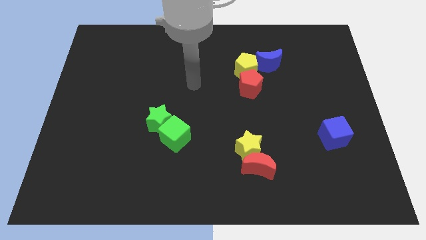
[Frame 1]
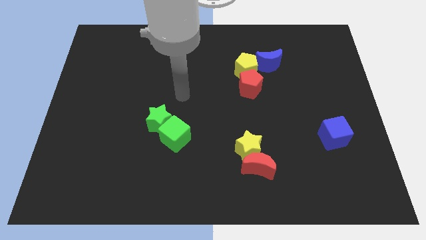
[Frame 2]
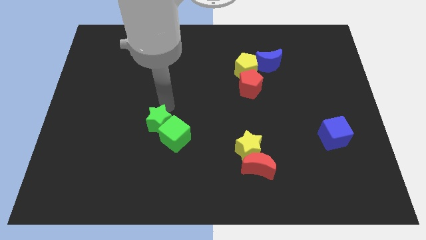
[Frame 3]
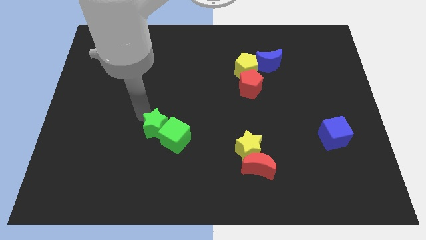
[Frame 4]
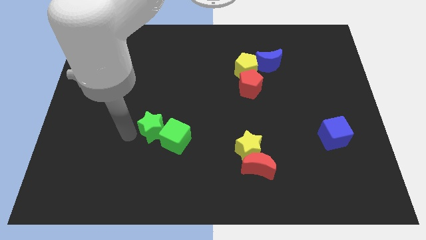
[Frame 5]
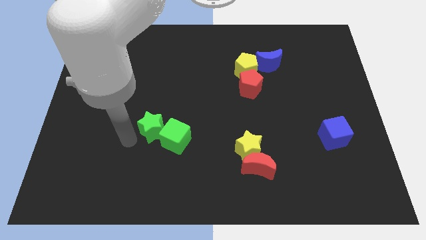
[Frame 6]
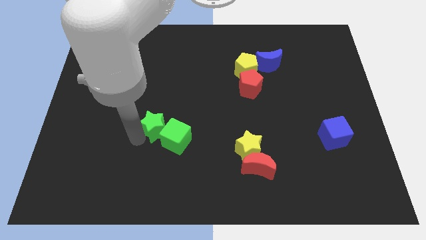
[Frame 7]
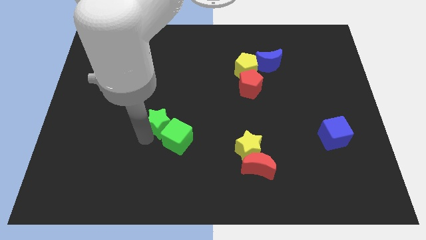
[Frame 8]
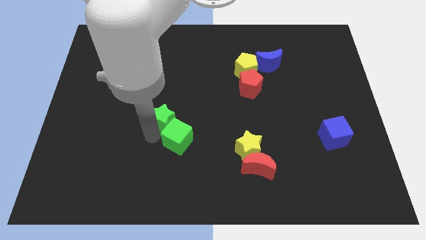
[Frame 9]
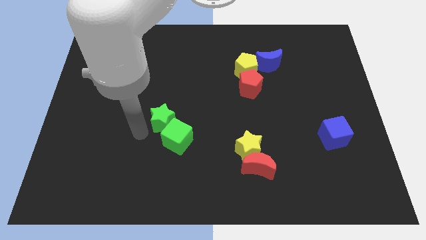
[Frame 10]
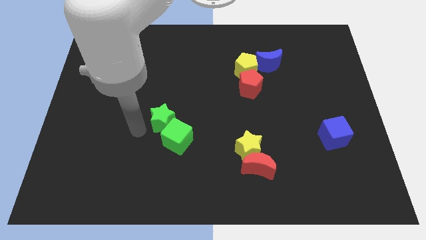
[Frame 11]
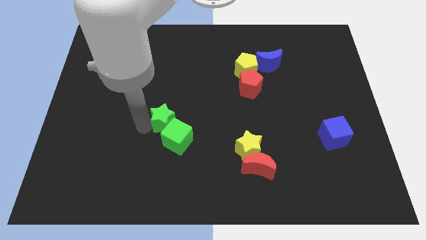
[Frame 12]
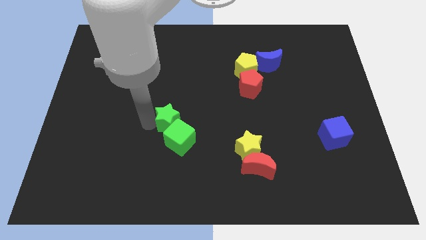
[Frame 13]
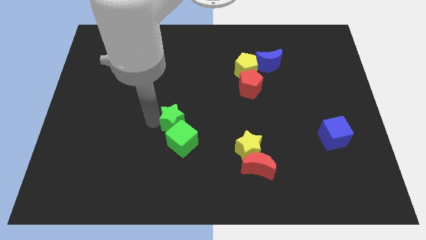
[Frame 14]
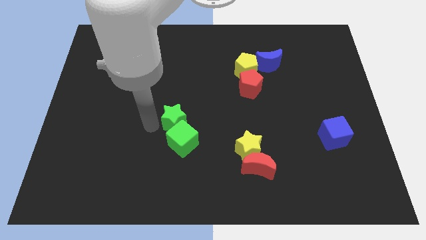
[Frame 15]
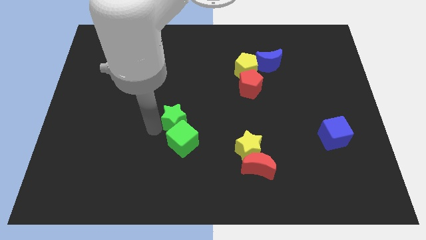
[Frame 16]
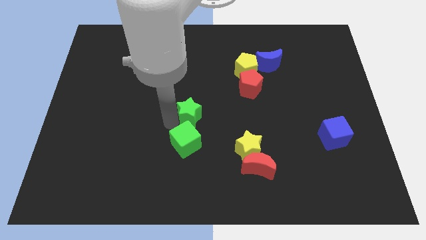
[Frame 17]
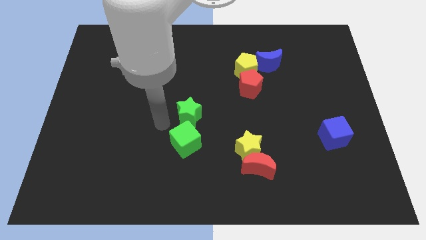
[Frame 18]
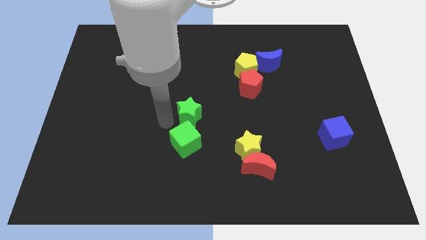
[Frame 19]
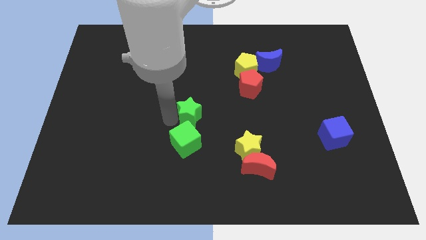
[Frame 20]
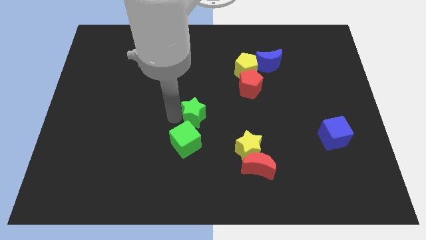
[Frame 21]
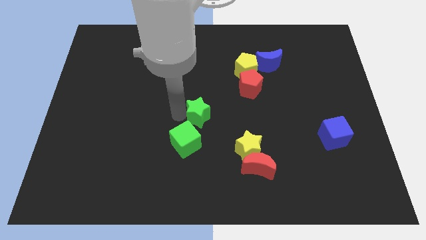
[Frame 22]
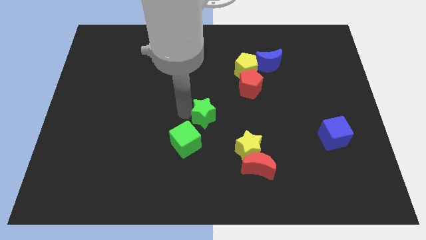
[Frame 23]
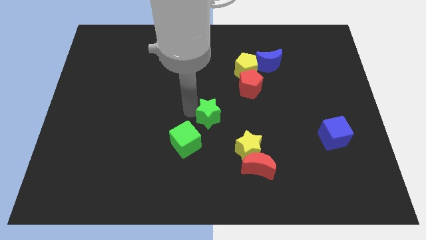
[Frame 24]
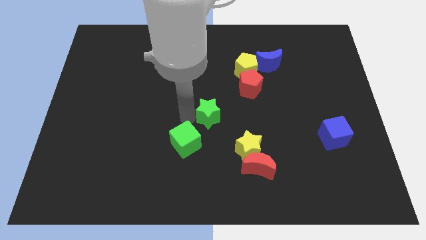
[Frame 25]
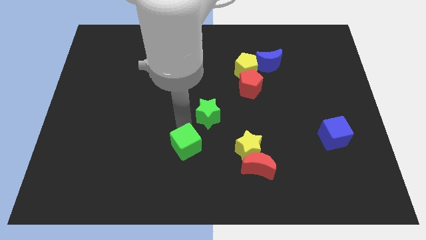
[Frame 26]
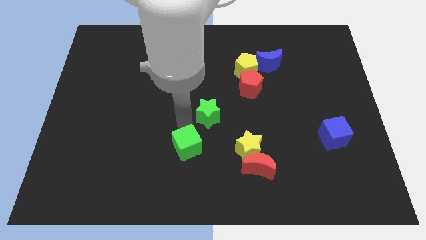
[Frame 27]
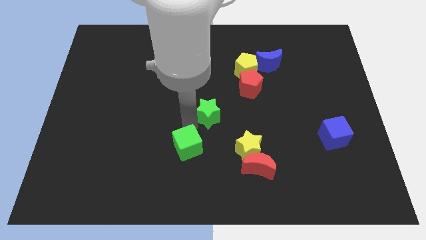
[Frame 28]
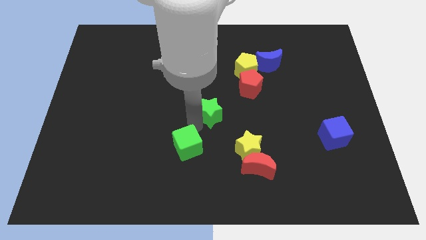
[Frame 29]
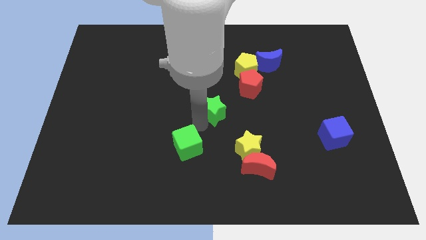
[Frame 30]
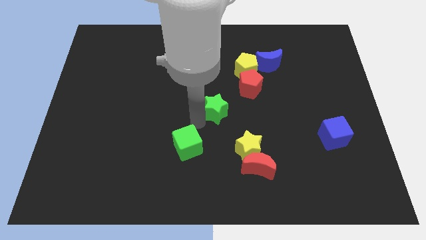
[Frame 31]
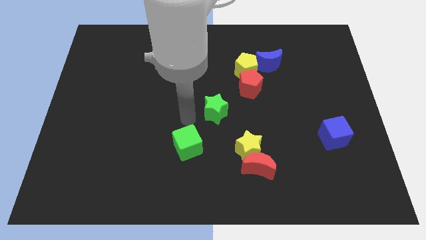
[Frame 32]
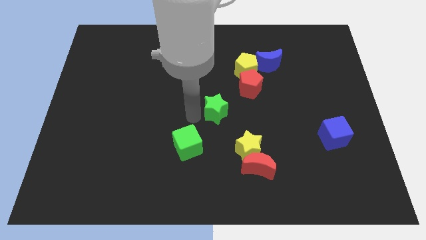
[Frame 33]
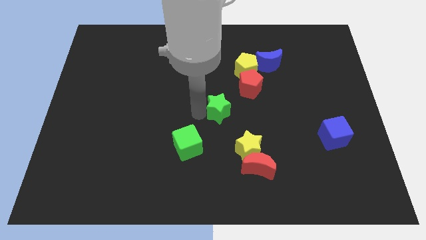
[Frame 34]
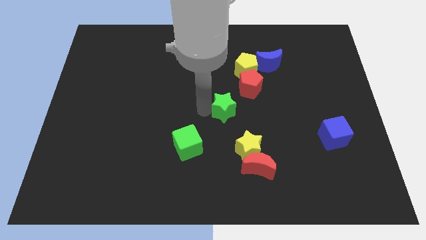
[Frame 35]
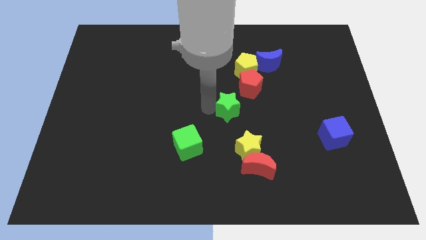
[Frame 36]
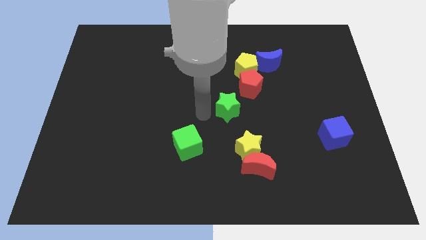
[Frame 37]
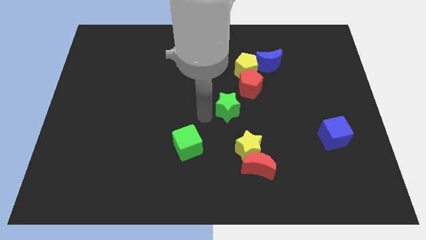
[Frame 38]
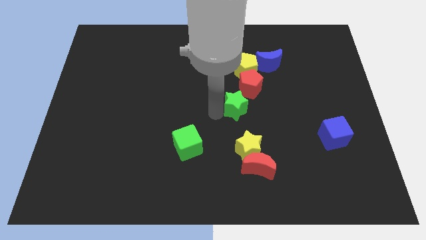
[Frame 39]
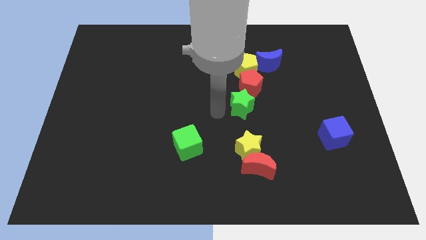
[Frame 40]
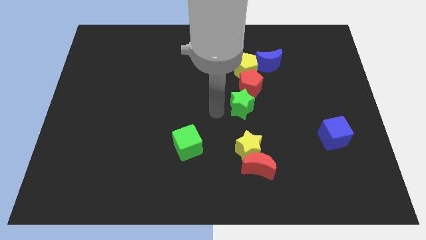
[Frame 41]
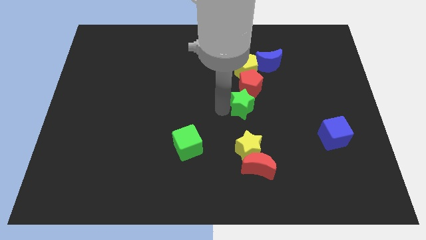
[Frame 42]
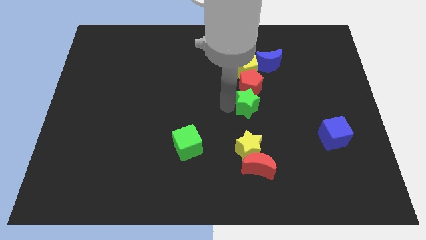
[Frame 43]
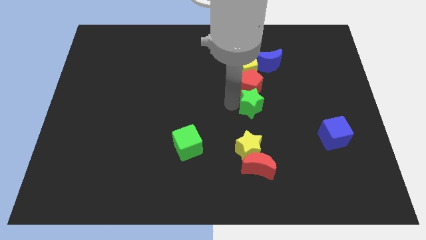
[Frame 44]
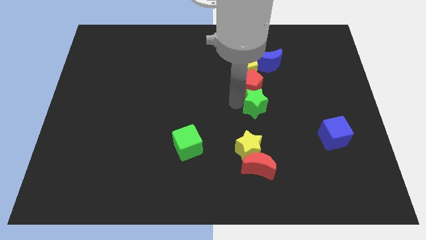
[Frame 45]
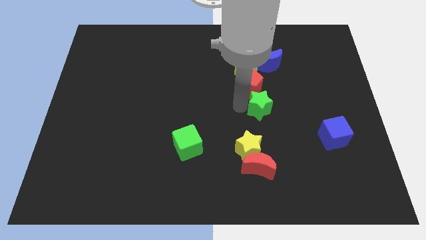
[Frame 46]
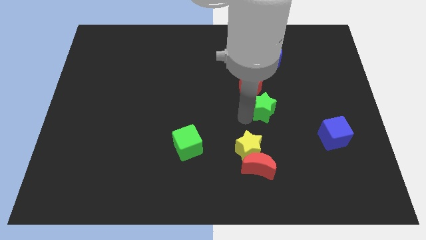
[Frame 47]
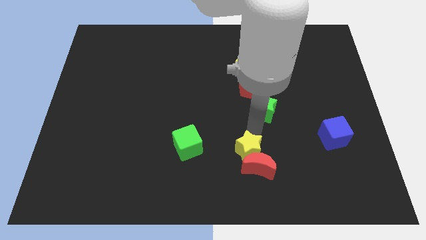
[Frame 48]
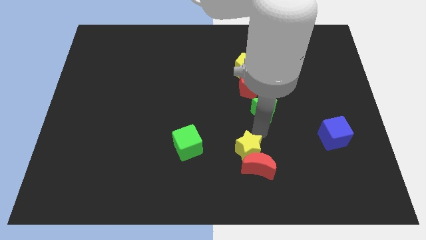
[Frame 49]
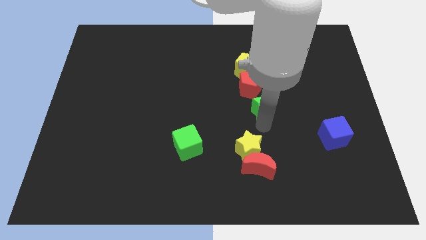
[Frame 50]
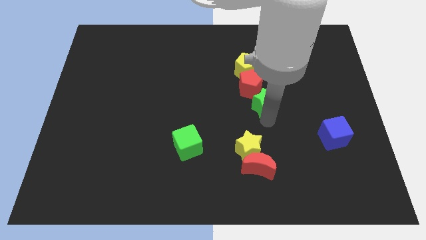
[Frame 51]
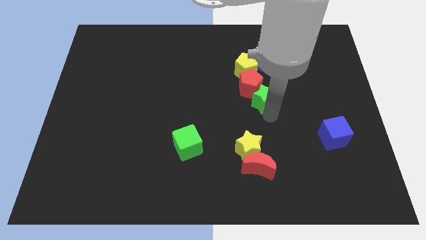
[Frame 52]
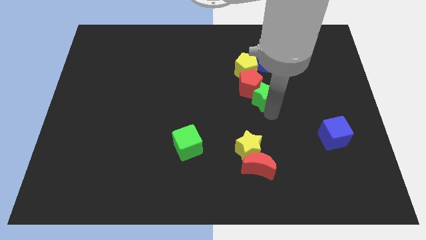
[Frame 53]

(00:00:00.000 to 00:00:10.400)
put the green star to the bottom right of the yellow pentagon

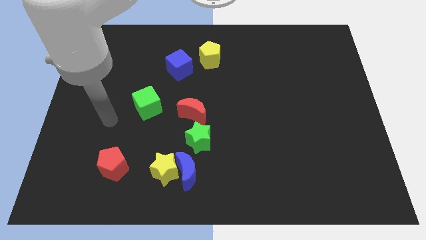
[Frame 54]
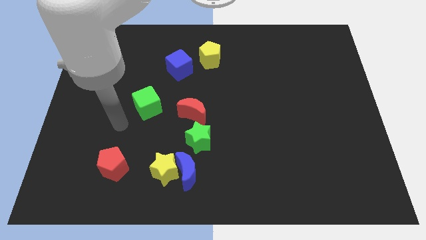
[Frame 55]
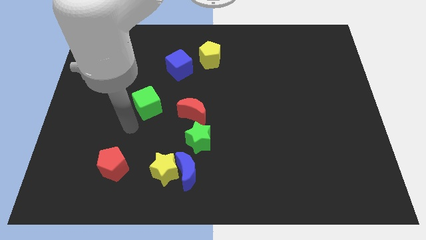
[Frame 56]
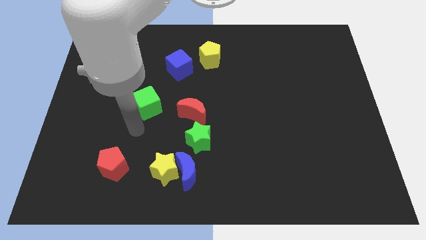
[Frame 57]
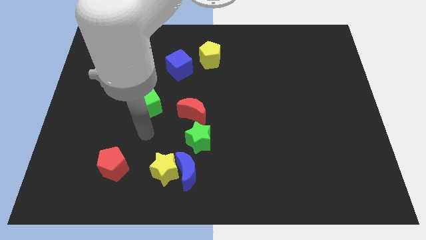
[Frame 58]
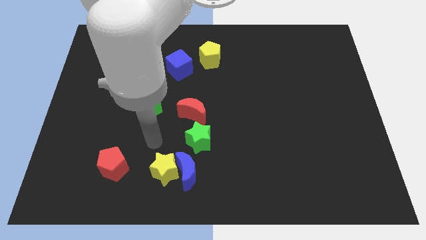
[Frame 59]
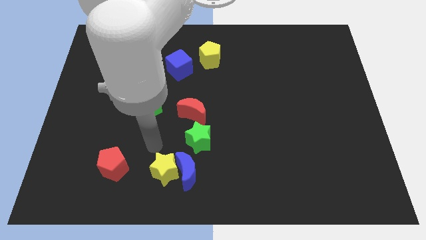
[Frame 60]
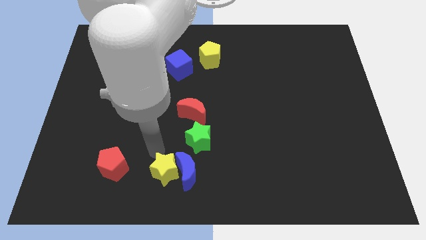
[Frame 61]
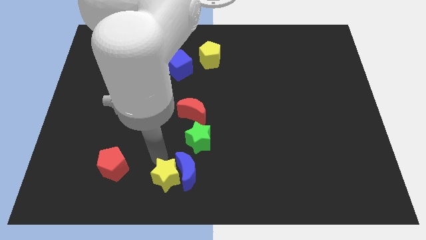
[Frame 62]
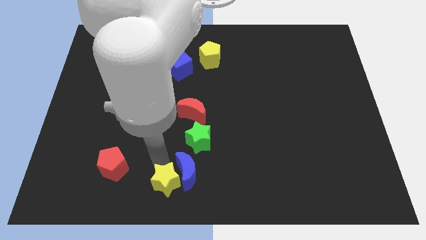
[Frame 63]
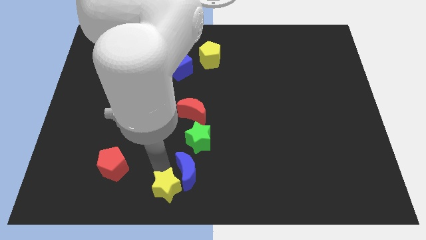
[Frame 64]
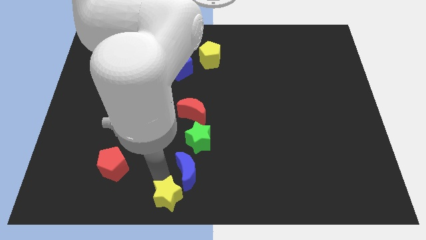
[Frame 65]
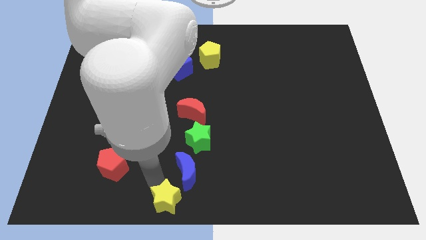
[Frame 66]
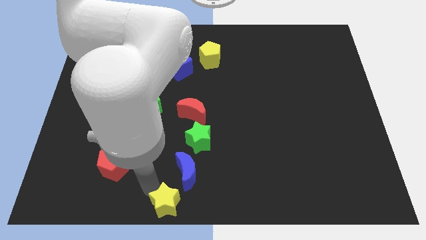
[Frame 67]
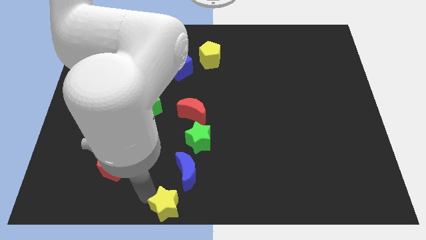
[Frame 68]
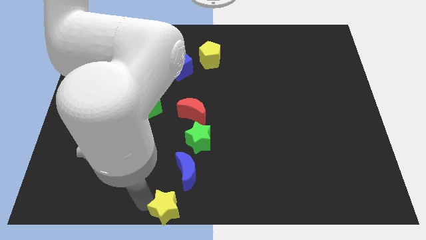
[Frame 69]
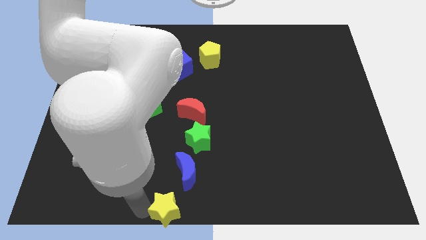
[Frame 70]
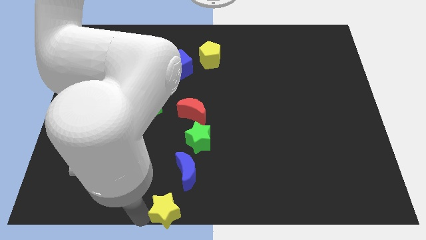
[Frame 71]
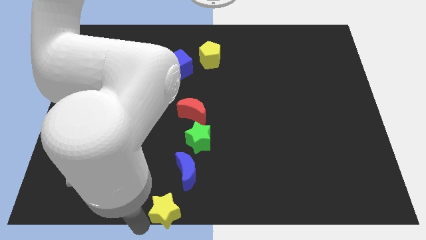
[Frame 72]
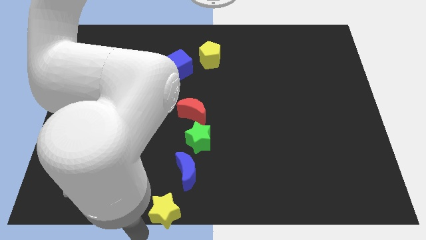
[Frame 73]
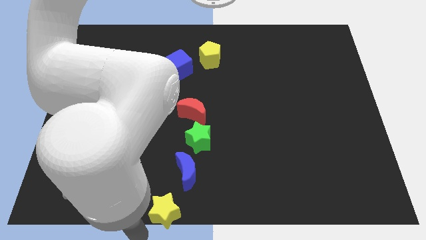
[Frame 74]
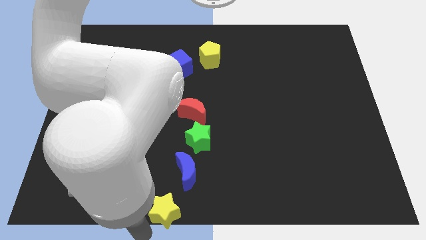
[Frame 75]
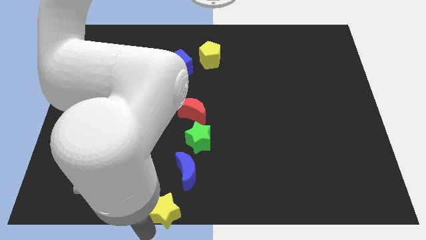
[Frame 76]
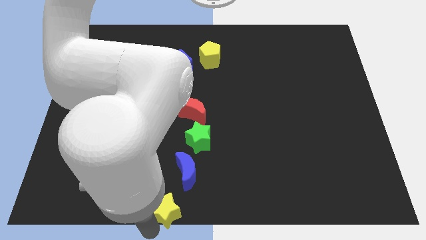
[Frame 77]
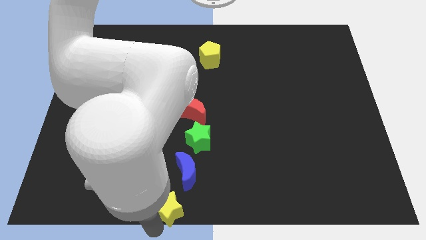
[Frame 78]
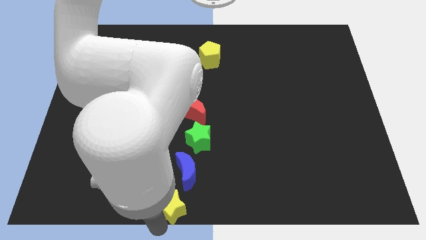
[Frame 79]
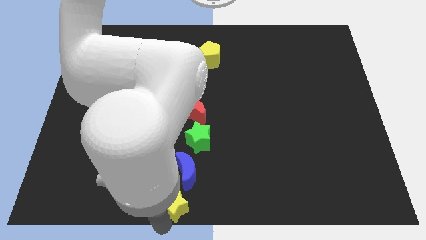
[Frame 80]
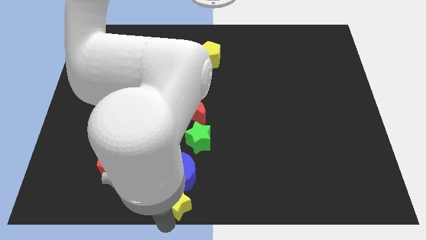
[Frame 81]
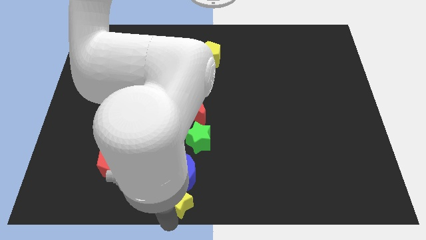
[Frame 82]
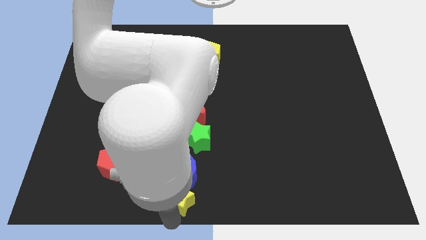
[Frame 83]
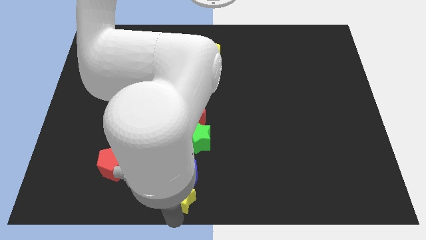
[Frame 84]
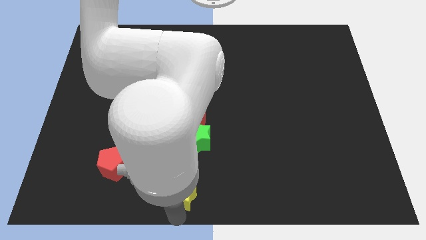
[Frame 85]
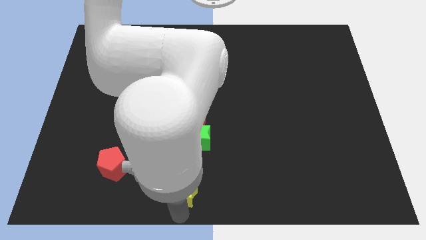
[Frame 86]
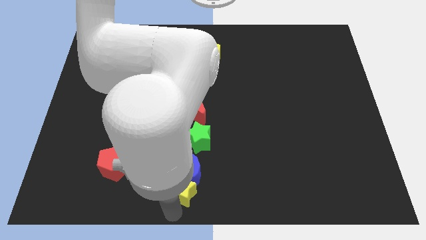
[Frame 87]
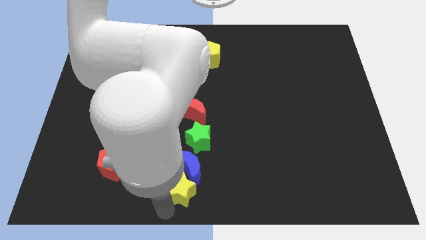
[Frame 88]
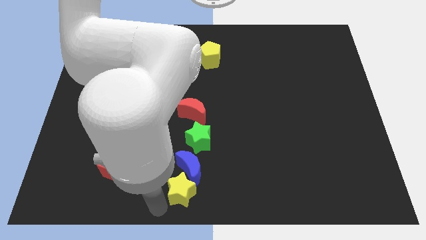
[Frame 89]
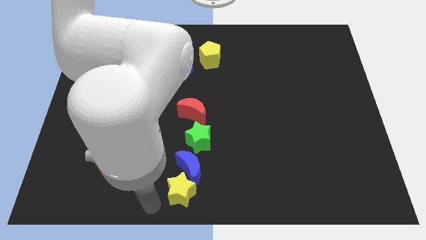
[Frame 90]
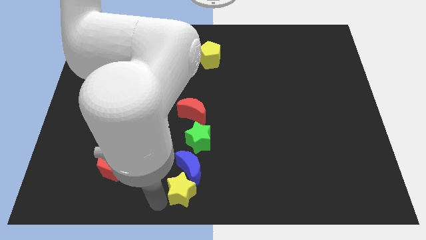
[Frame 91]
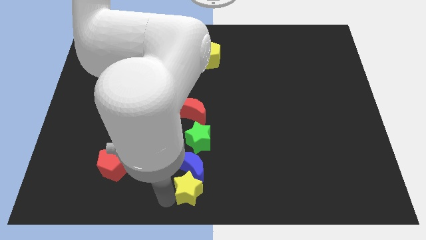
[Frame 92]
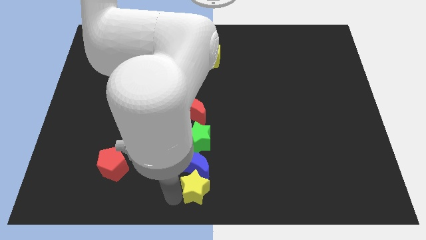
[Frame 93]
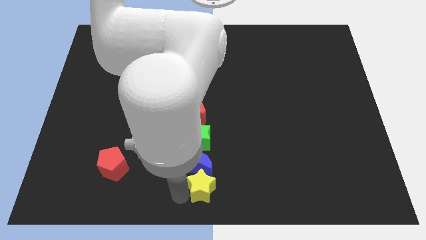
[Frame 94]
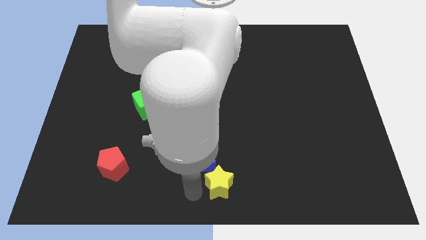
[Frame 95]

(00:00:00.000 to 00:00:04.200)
slide the yellow star right of the blue moon
